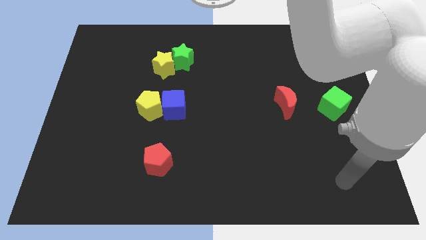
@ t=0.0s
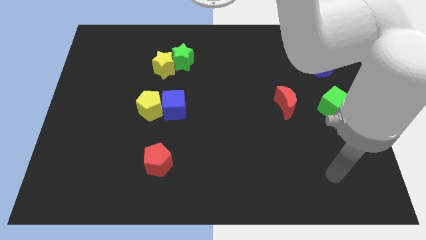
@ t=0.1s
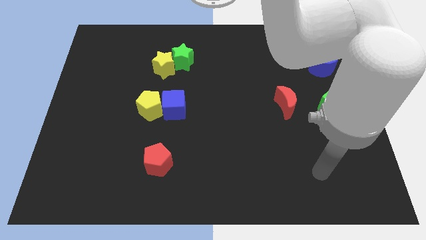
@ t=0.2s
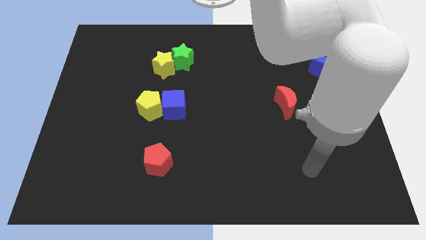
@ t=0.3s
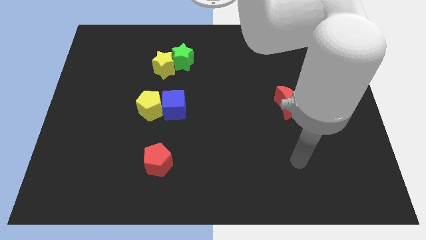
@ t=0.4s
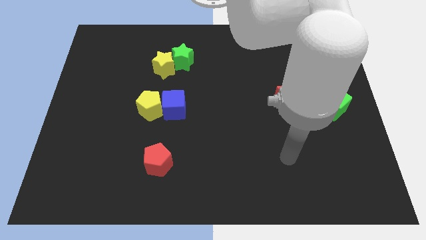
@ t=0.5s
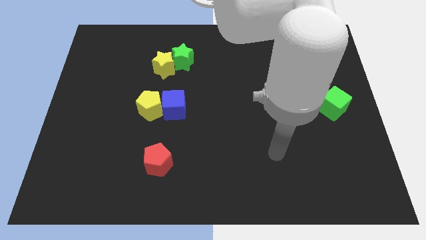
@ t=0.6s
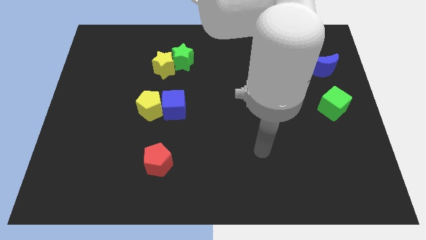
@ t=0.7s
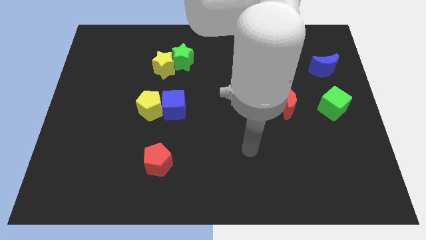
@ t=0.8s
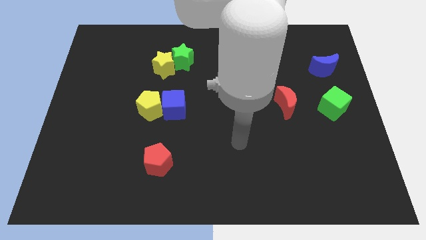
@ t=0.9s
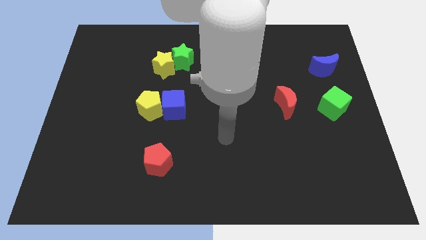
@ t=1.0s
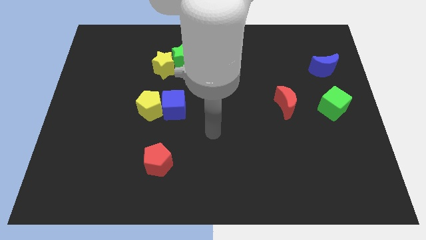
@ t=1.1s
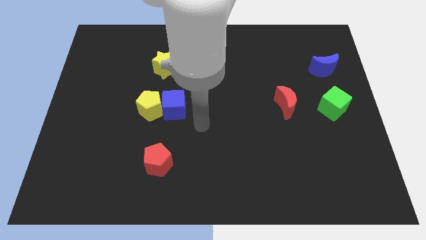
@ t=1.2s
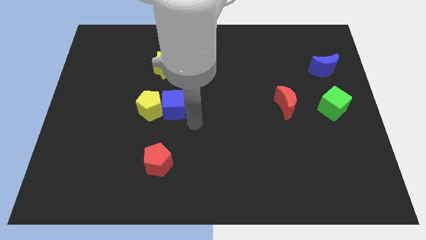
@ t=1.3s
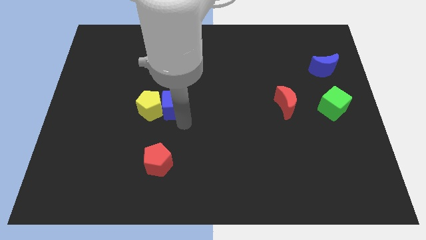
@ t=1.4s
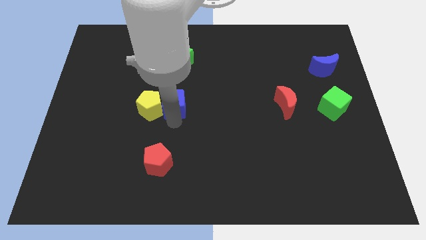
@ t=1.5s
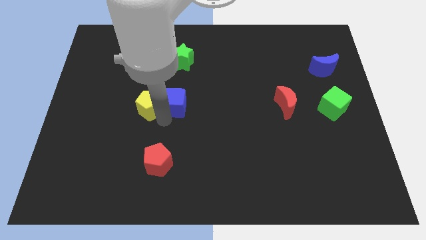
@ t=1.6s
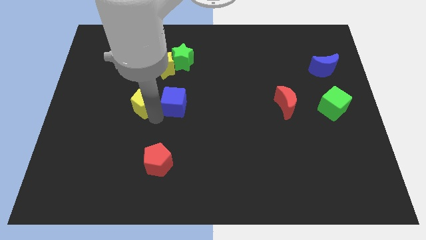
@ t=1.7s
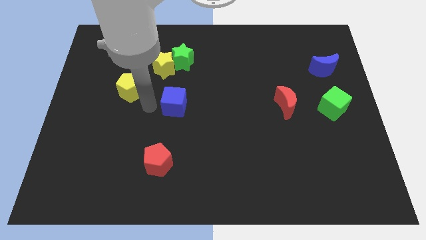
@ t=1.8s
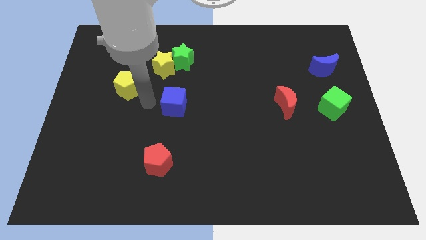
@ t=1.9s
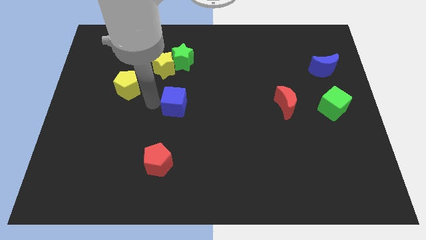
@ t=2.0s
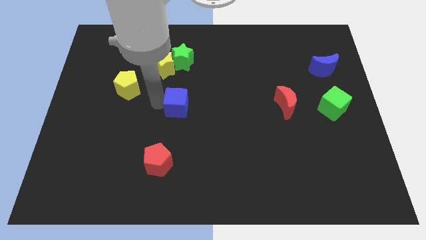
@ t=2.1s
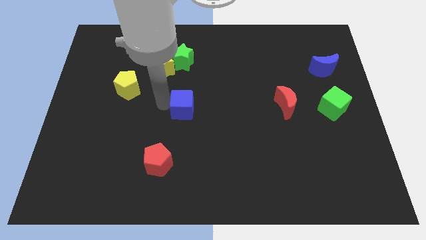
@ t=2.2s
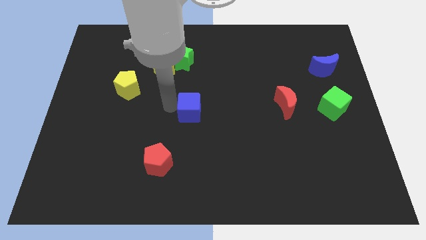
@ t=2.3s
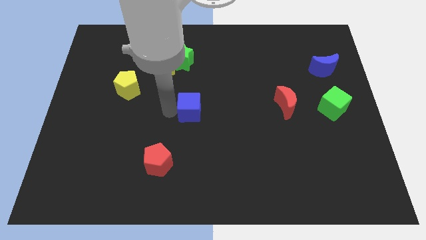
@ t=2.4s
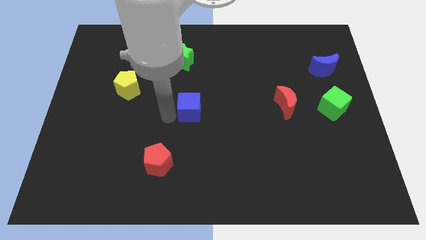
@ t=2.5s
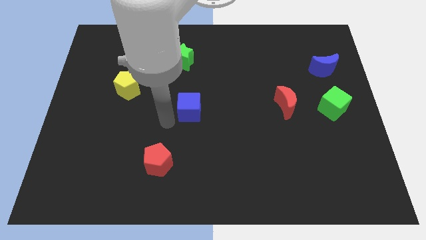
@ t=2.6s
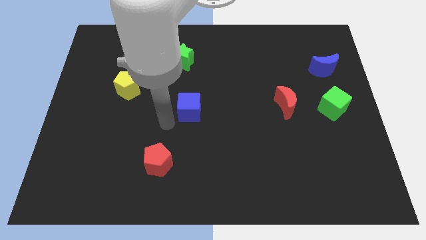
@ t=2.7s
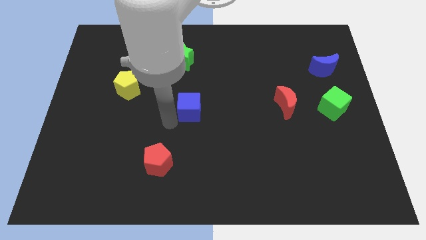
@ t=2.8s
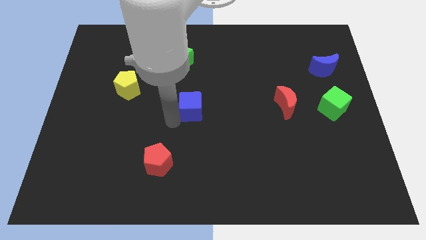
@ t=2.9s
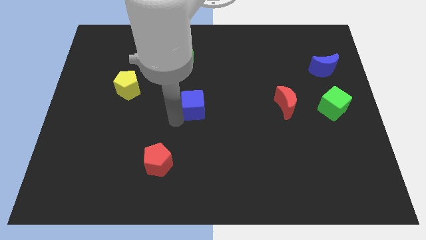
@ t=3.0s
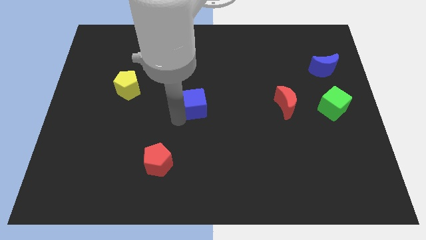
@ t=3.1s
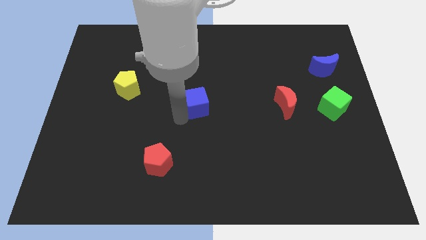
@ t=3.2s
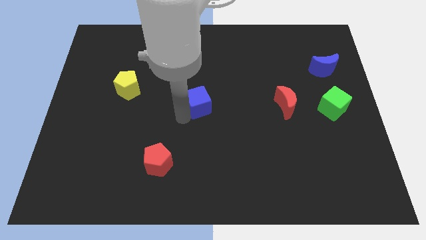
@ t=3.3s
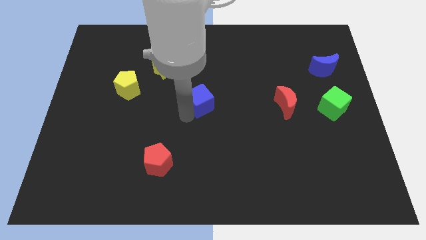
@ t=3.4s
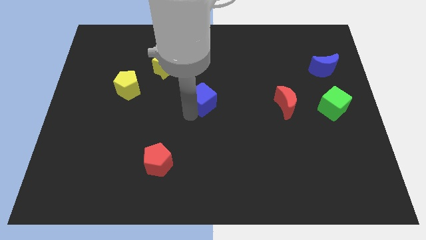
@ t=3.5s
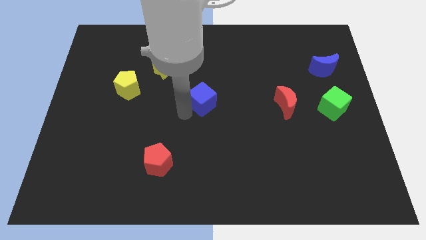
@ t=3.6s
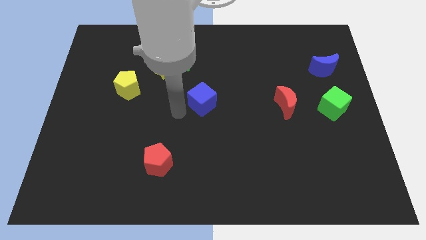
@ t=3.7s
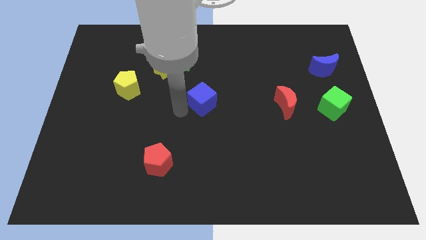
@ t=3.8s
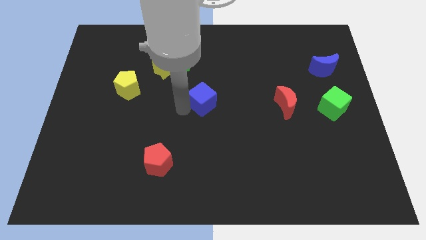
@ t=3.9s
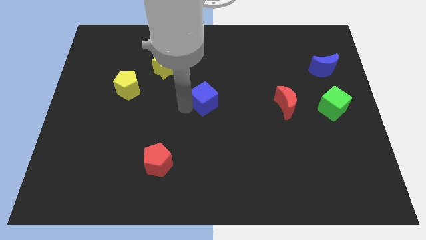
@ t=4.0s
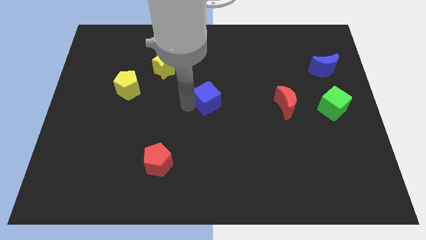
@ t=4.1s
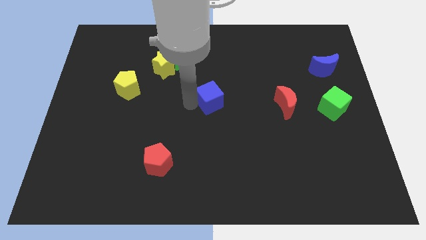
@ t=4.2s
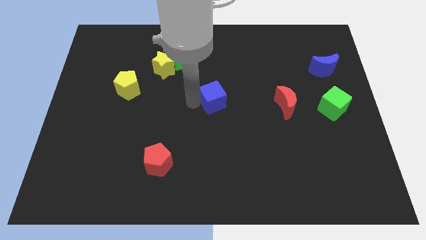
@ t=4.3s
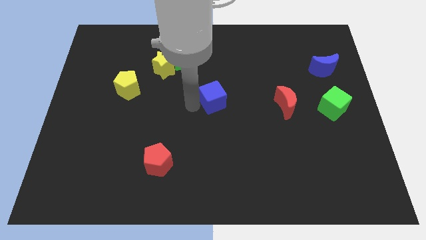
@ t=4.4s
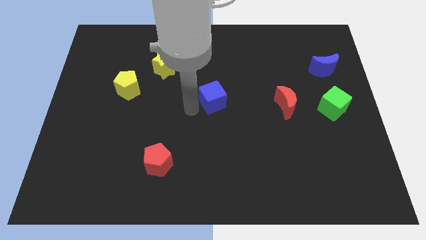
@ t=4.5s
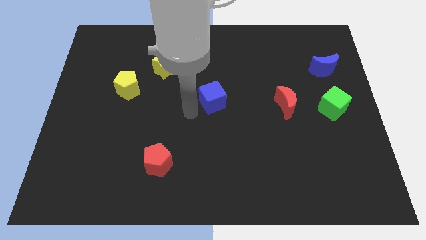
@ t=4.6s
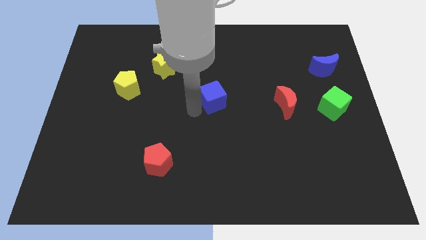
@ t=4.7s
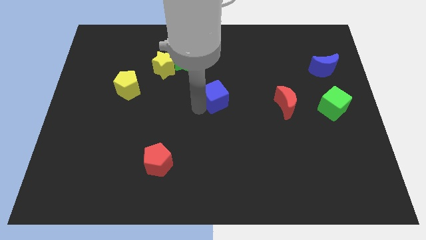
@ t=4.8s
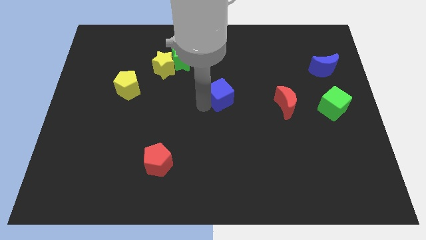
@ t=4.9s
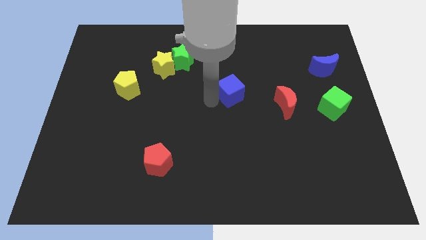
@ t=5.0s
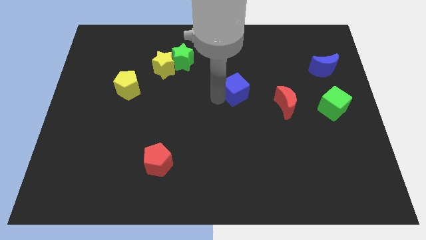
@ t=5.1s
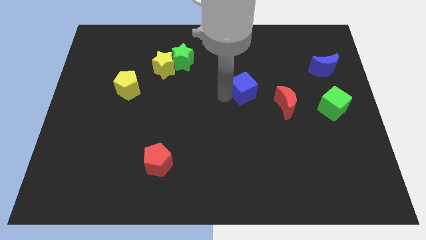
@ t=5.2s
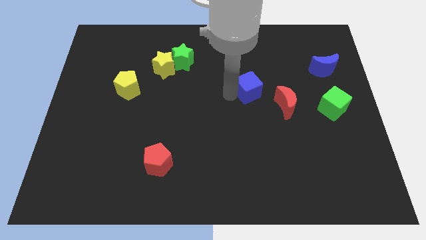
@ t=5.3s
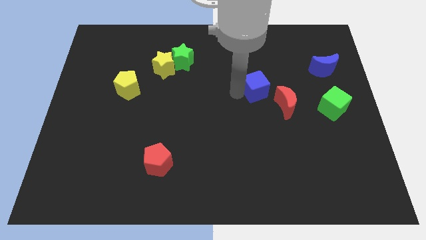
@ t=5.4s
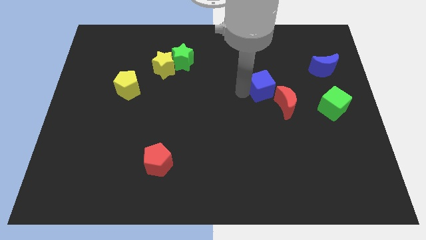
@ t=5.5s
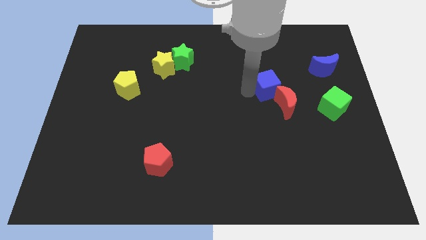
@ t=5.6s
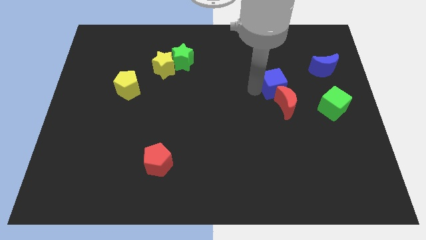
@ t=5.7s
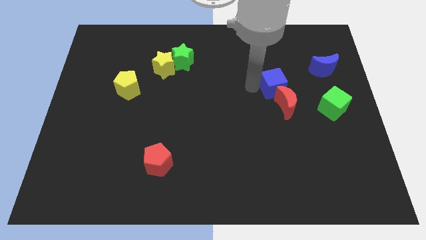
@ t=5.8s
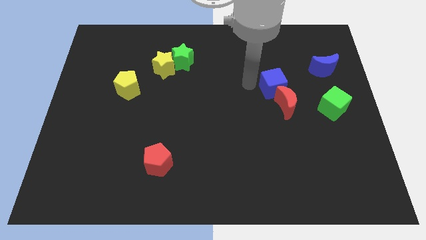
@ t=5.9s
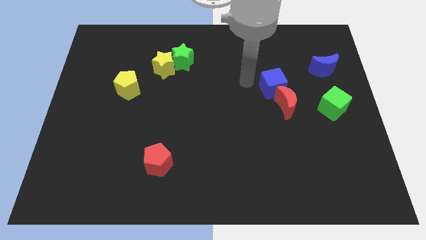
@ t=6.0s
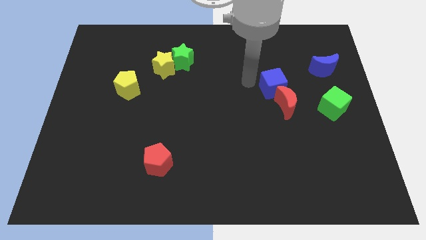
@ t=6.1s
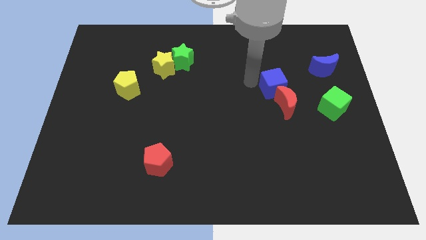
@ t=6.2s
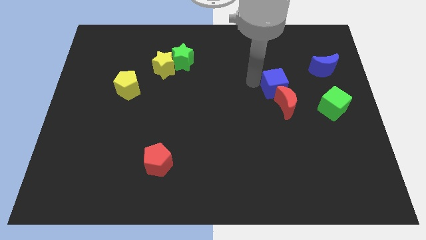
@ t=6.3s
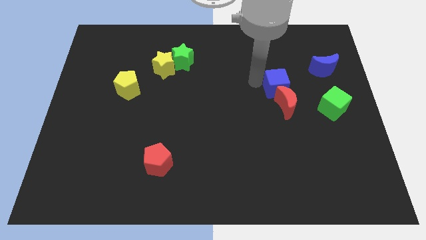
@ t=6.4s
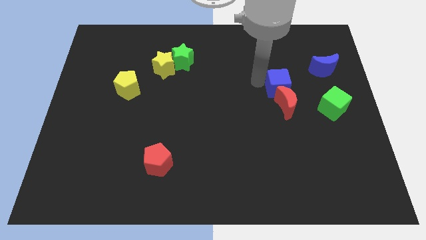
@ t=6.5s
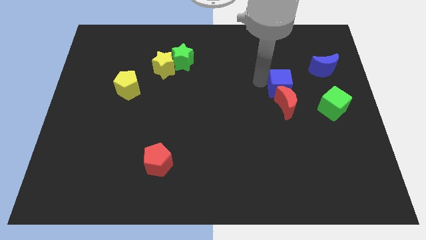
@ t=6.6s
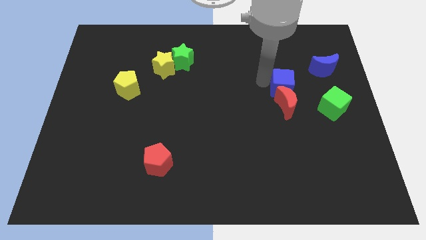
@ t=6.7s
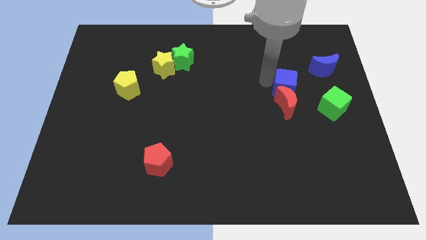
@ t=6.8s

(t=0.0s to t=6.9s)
push the blue cube to the top left side of the green cube
